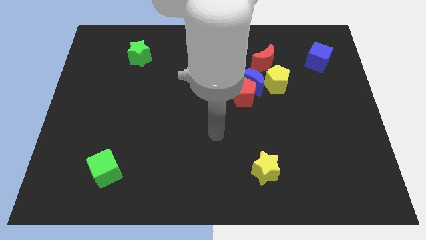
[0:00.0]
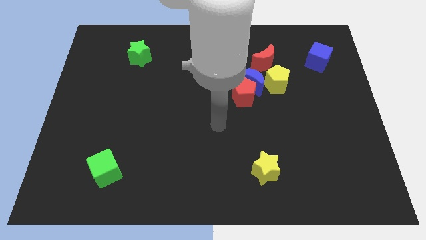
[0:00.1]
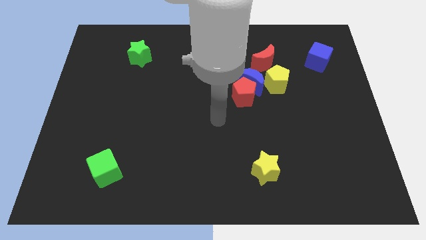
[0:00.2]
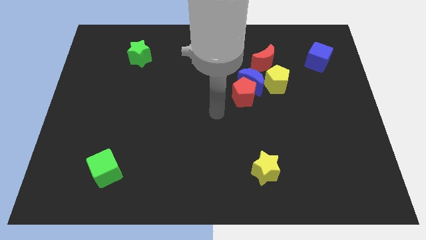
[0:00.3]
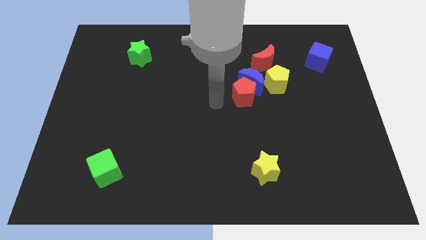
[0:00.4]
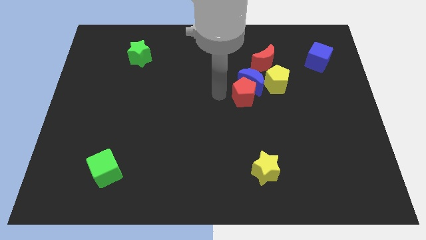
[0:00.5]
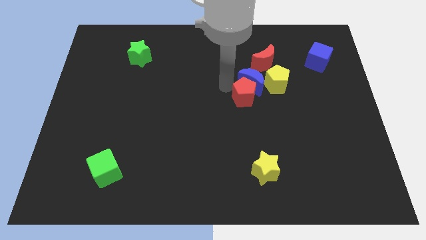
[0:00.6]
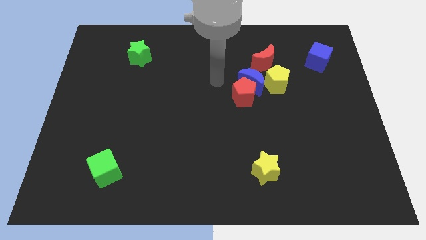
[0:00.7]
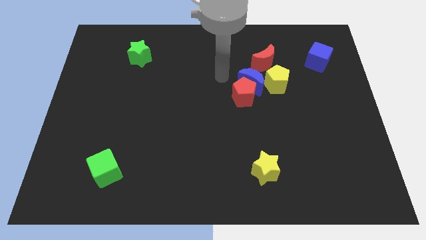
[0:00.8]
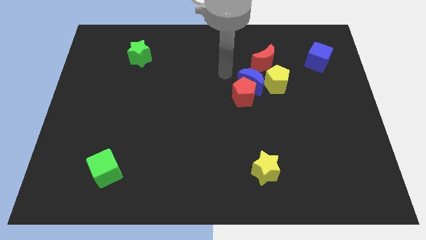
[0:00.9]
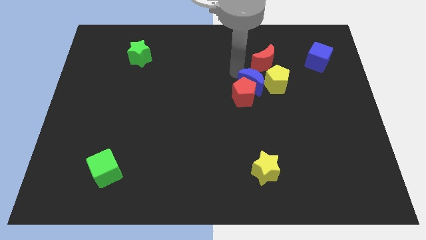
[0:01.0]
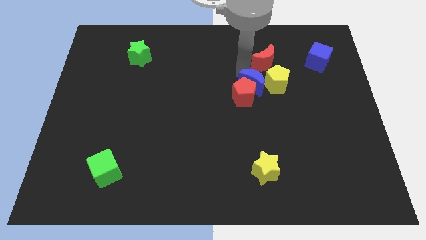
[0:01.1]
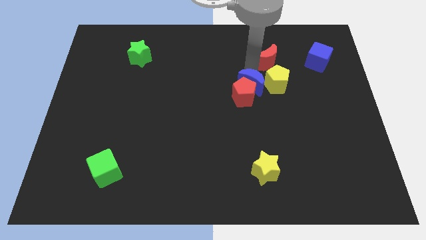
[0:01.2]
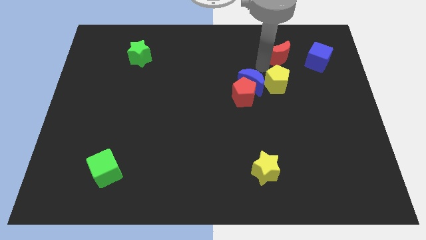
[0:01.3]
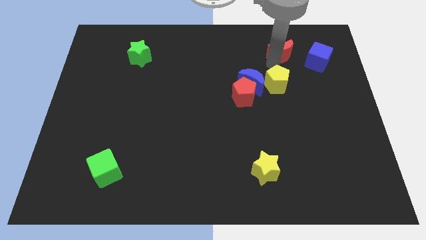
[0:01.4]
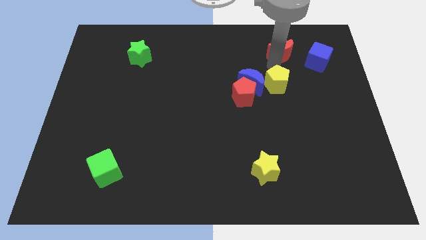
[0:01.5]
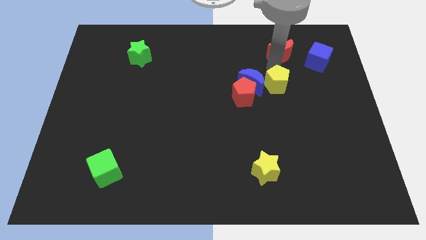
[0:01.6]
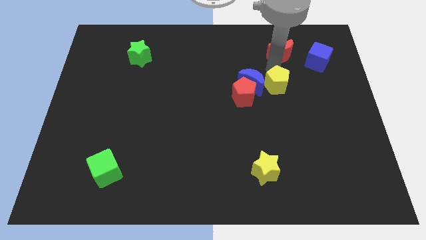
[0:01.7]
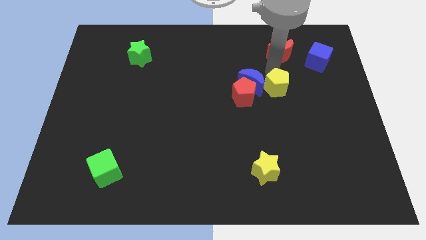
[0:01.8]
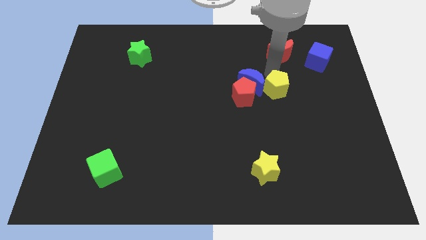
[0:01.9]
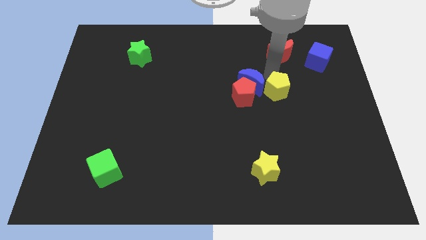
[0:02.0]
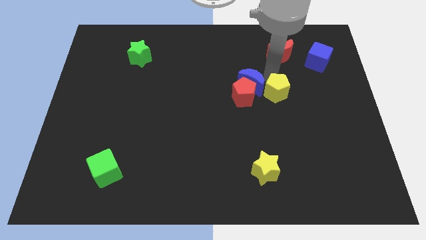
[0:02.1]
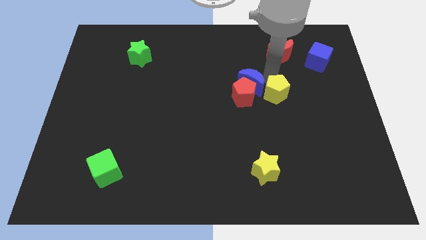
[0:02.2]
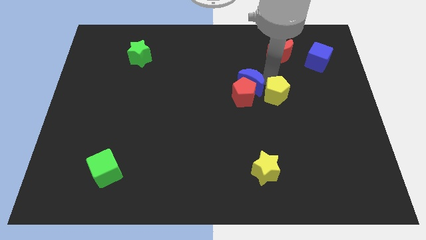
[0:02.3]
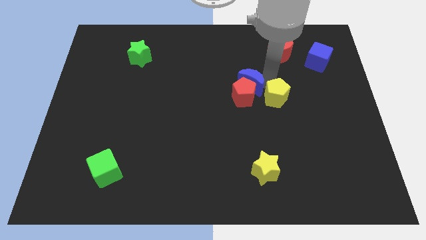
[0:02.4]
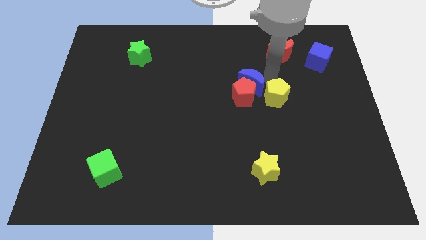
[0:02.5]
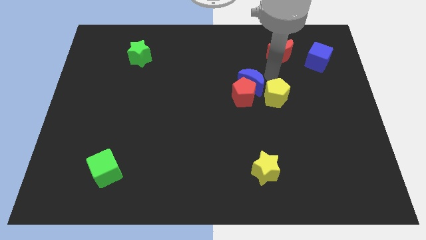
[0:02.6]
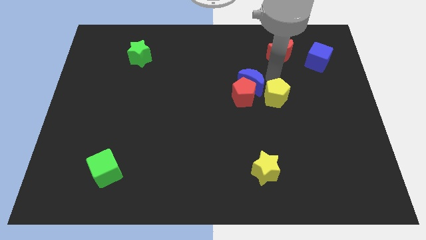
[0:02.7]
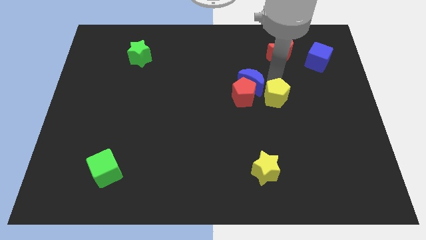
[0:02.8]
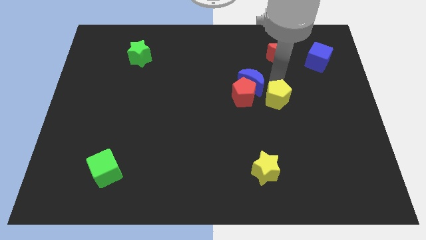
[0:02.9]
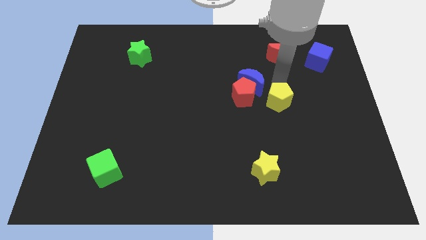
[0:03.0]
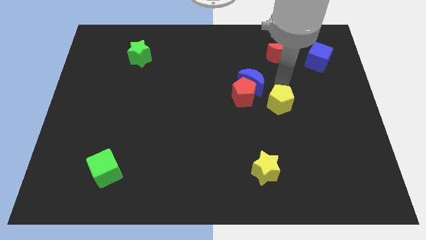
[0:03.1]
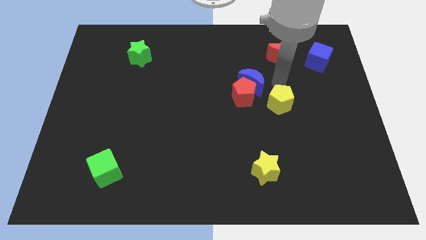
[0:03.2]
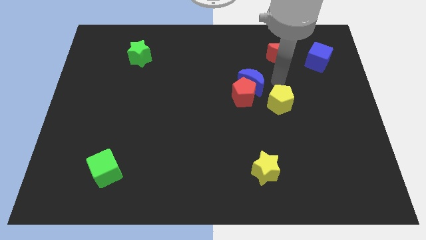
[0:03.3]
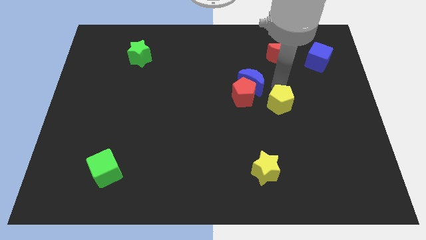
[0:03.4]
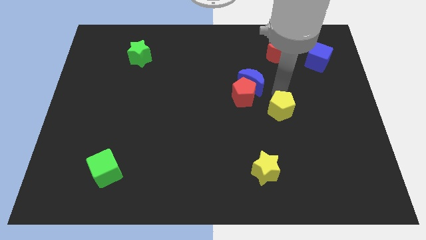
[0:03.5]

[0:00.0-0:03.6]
slide the yellow pentagon a bit downwards

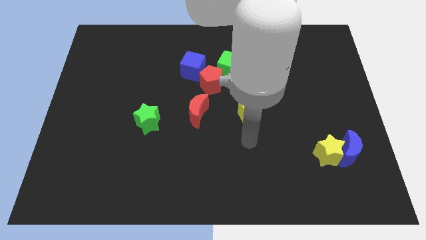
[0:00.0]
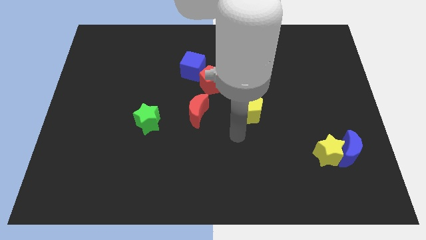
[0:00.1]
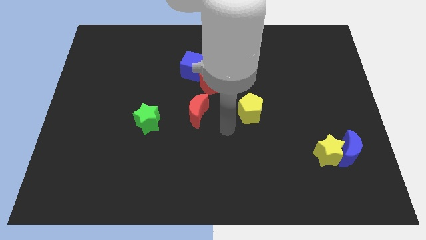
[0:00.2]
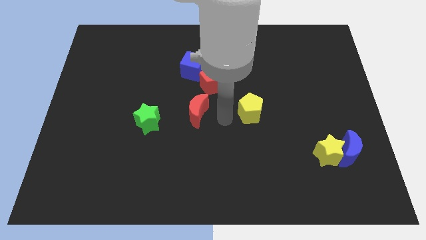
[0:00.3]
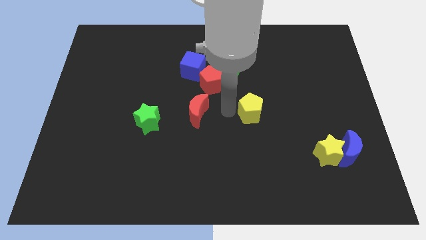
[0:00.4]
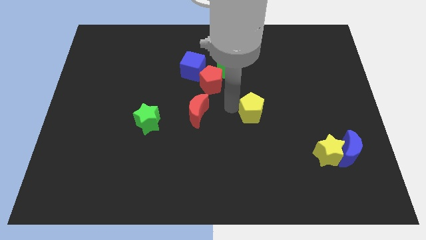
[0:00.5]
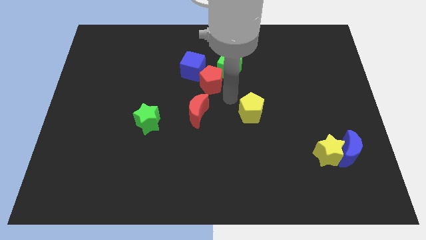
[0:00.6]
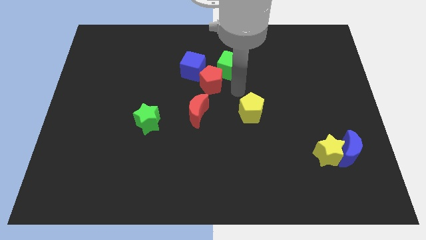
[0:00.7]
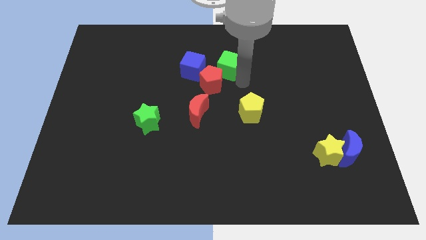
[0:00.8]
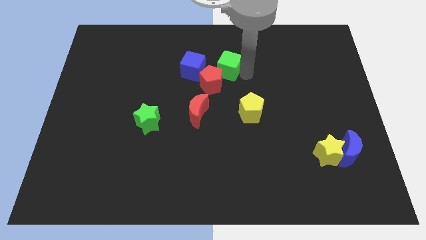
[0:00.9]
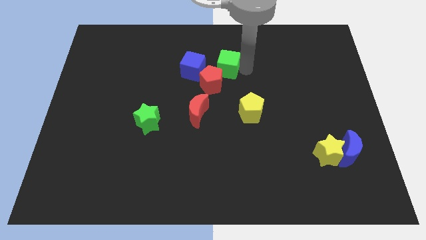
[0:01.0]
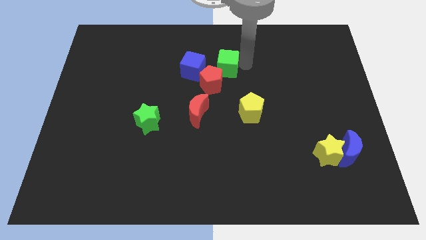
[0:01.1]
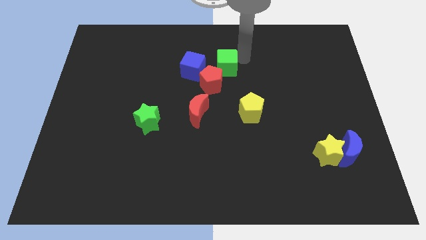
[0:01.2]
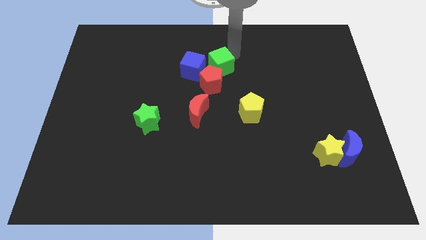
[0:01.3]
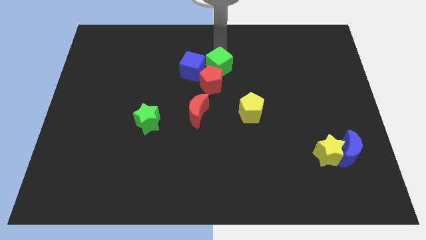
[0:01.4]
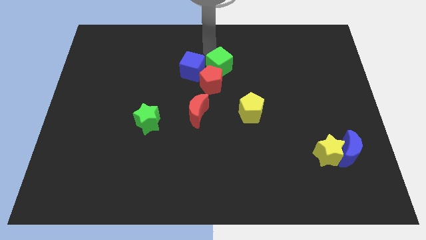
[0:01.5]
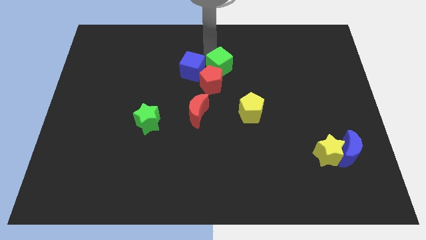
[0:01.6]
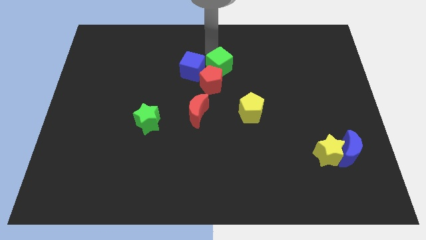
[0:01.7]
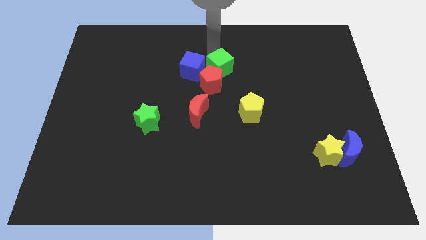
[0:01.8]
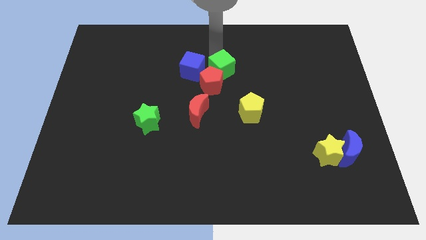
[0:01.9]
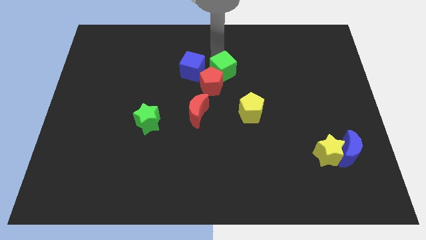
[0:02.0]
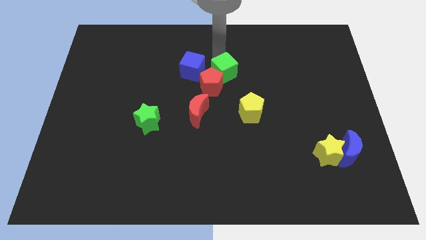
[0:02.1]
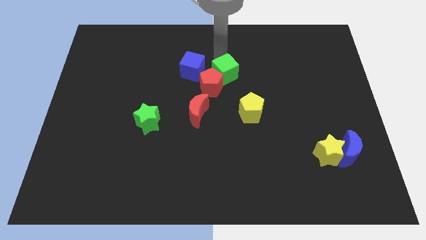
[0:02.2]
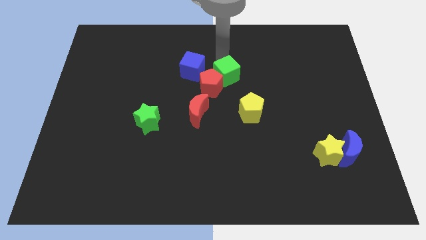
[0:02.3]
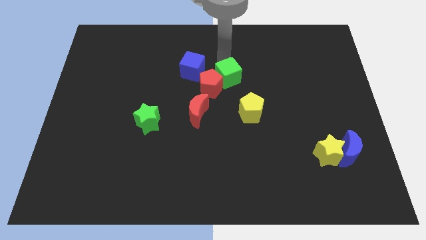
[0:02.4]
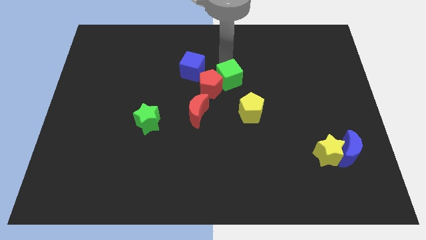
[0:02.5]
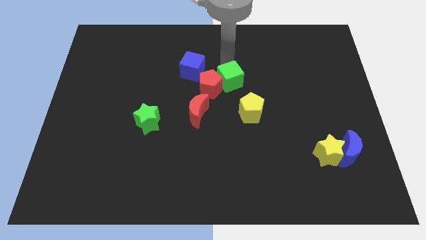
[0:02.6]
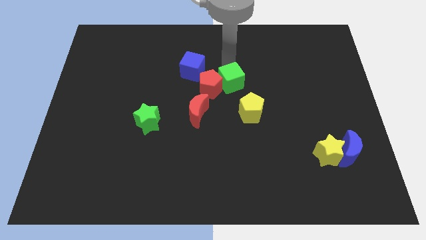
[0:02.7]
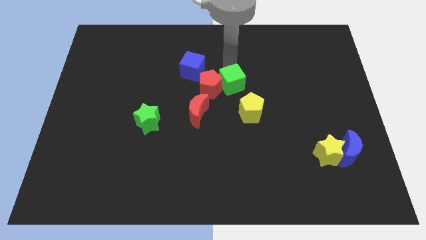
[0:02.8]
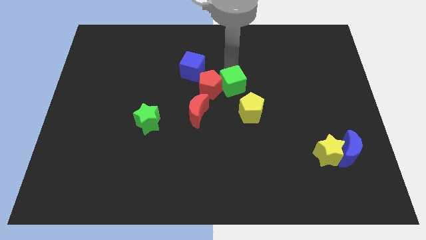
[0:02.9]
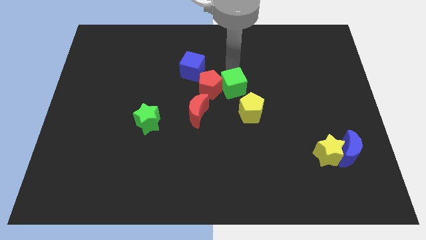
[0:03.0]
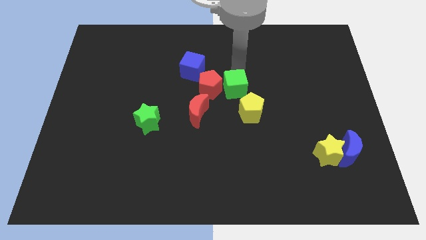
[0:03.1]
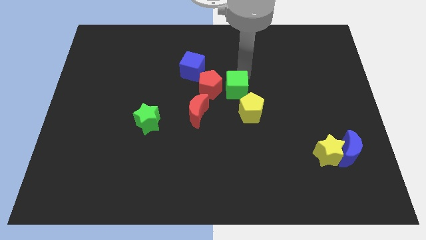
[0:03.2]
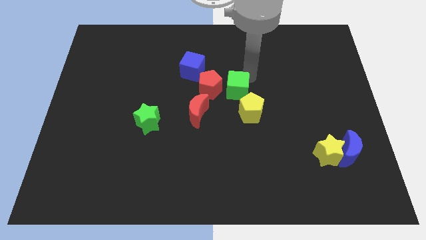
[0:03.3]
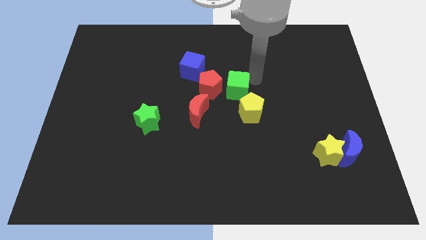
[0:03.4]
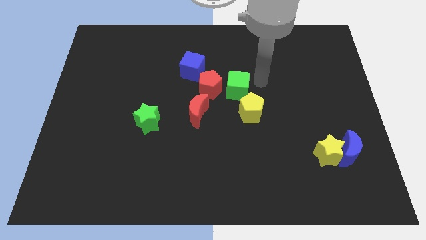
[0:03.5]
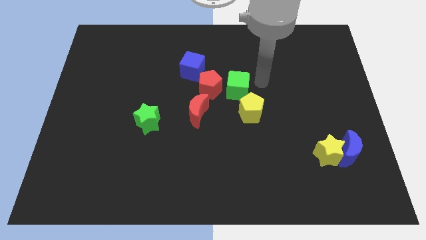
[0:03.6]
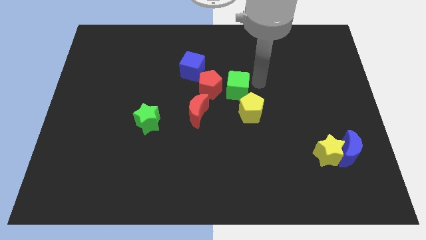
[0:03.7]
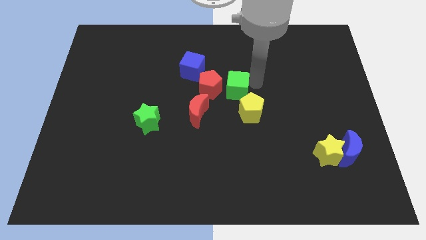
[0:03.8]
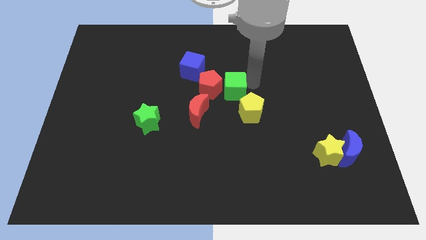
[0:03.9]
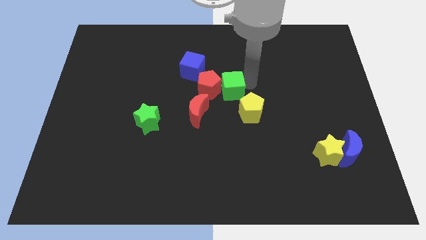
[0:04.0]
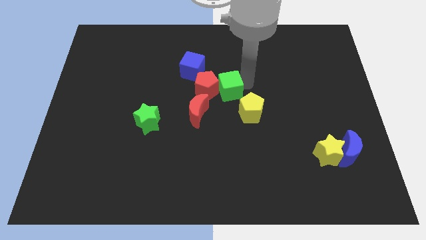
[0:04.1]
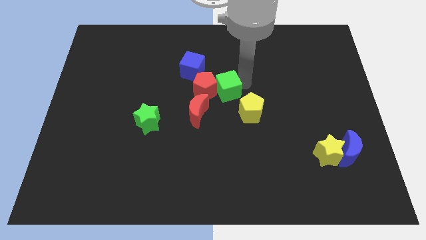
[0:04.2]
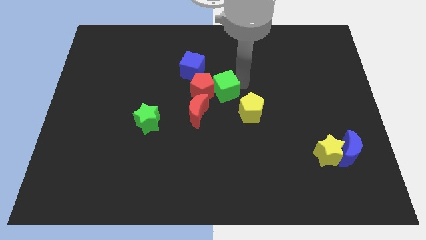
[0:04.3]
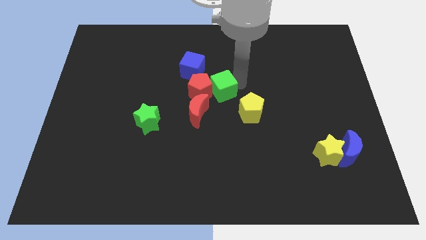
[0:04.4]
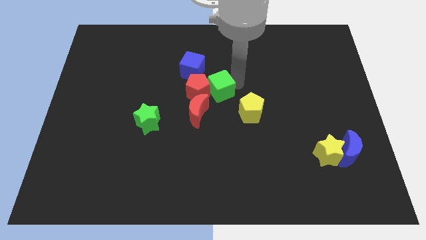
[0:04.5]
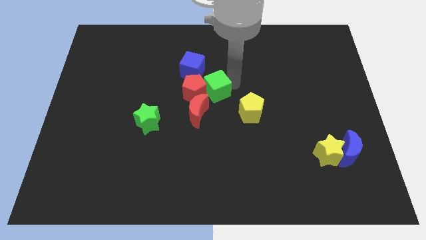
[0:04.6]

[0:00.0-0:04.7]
slide the green cube down and then left somewhat

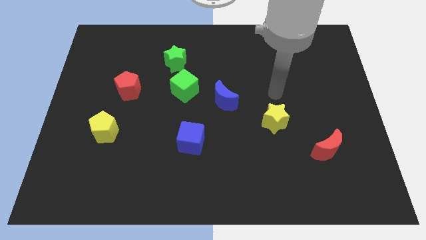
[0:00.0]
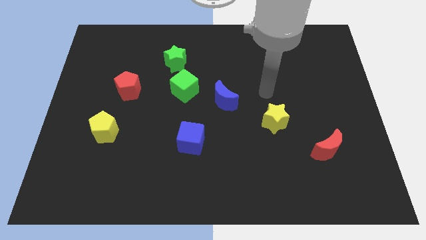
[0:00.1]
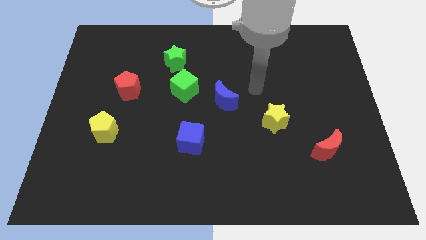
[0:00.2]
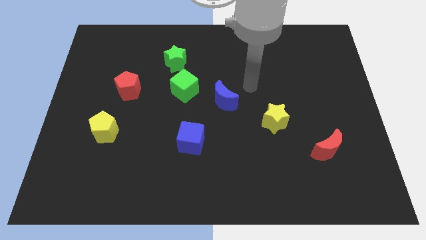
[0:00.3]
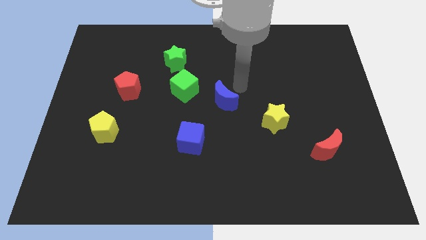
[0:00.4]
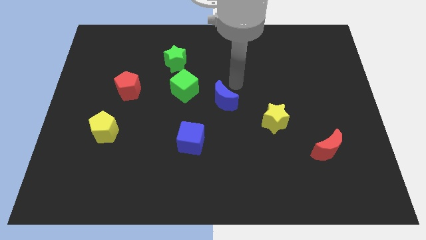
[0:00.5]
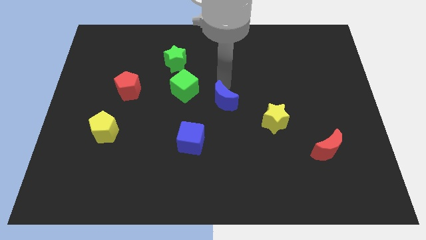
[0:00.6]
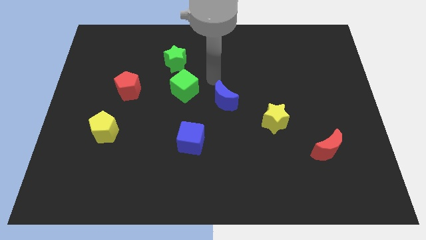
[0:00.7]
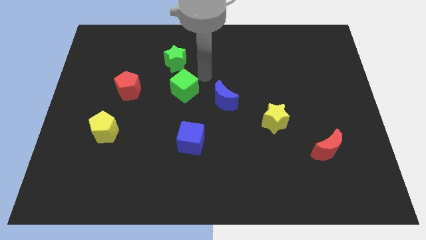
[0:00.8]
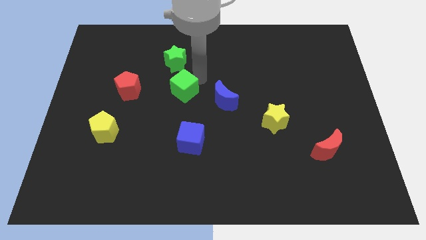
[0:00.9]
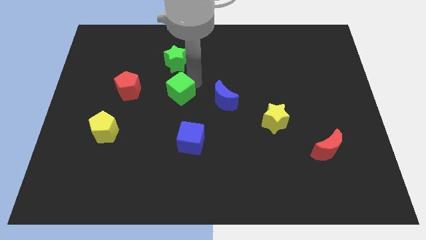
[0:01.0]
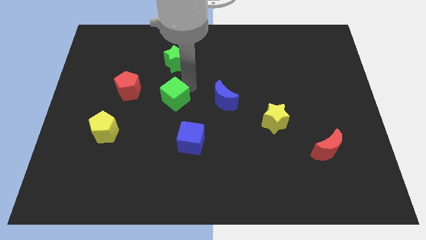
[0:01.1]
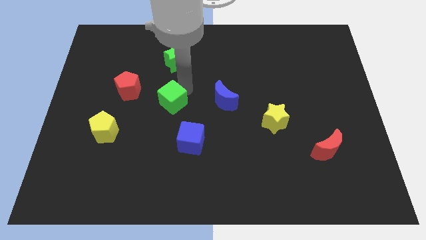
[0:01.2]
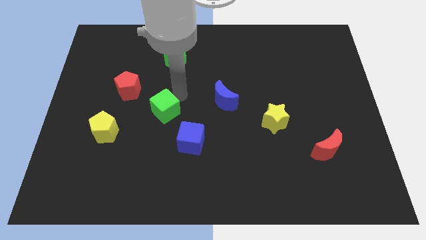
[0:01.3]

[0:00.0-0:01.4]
slide the green cube somewhat diagonally down and left
